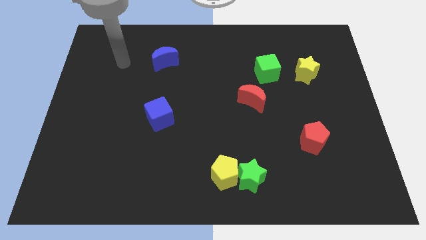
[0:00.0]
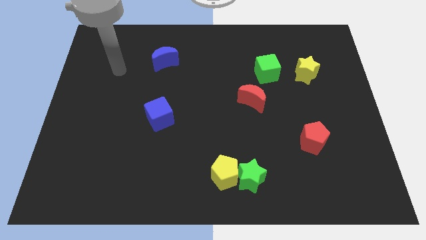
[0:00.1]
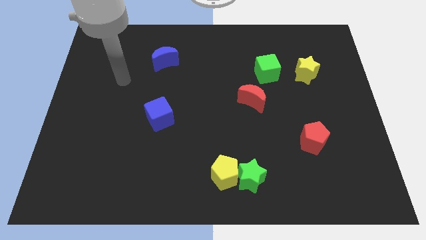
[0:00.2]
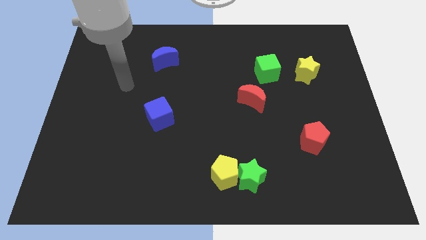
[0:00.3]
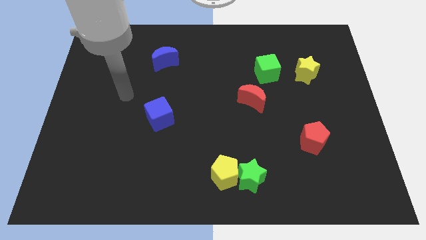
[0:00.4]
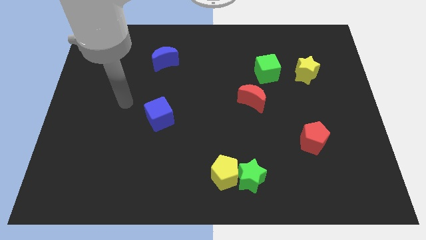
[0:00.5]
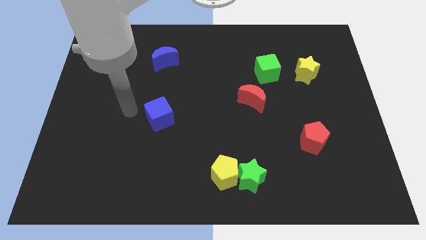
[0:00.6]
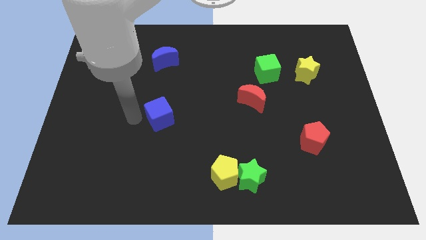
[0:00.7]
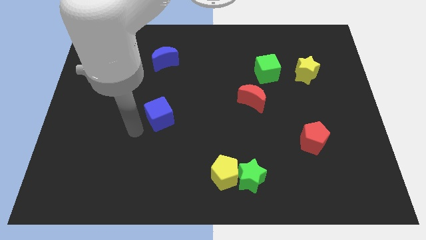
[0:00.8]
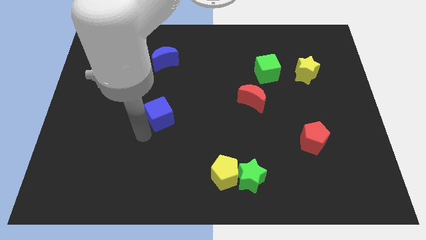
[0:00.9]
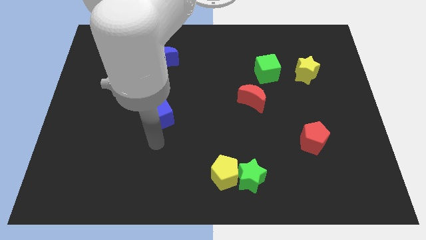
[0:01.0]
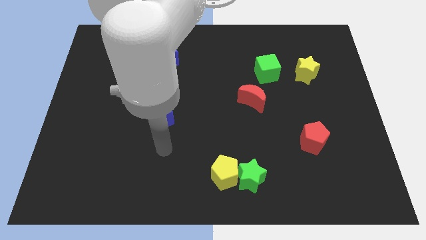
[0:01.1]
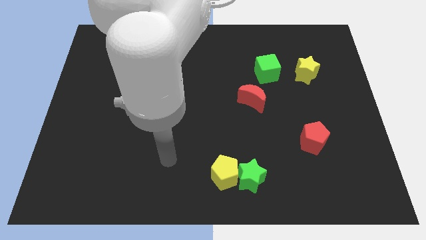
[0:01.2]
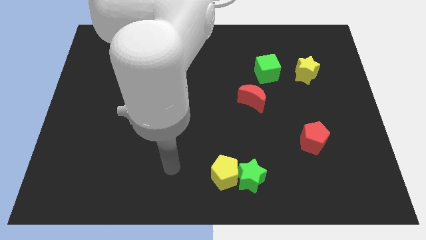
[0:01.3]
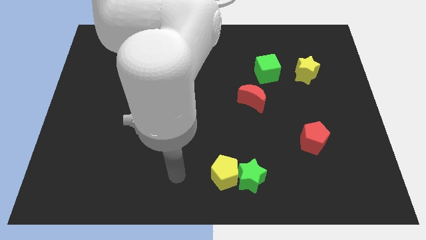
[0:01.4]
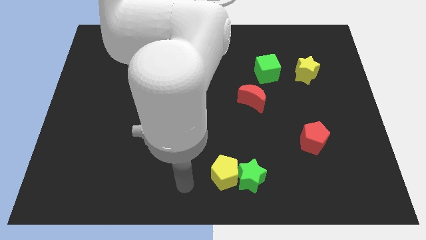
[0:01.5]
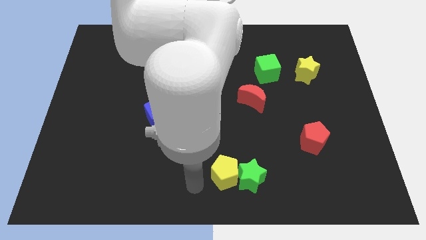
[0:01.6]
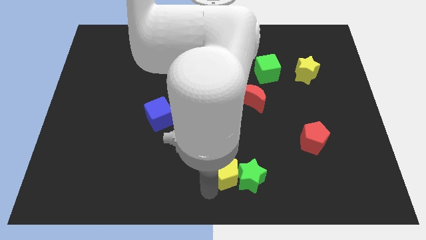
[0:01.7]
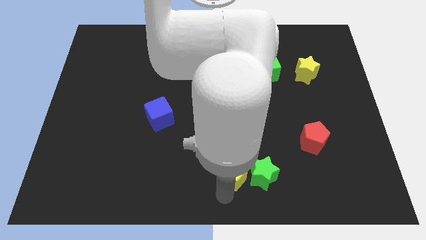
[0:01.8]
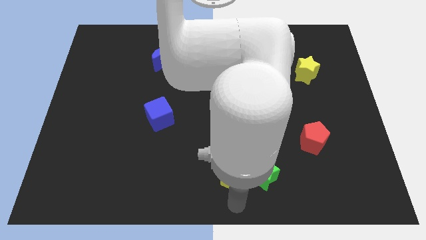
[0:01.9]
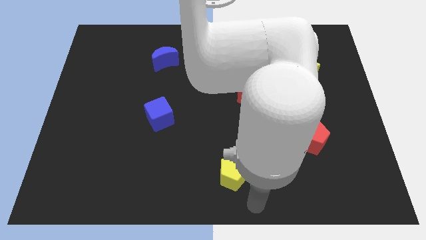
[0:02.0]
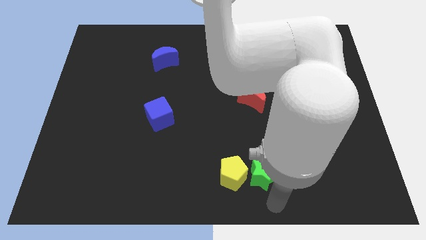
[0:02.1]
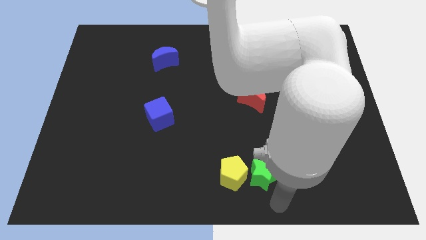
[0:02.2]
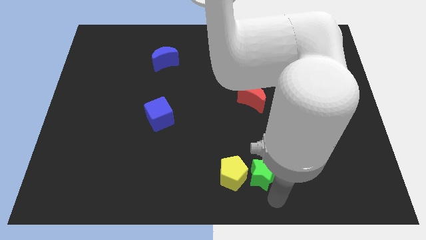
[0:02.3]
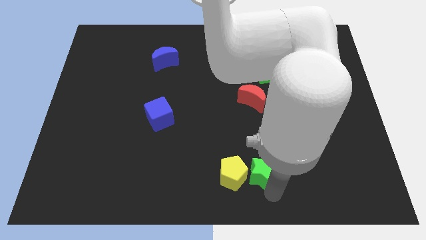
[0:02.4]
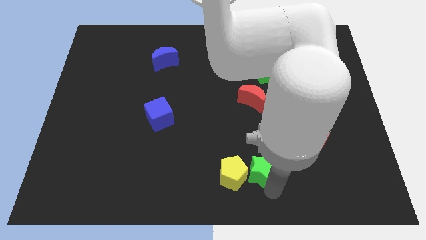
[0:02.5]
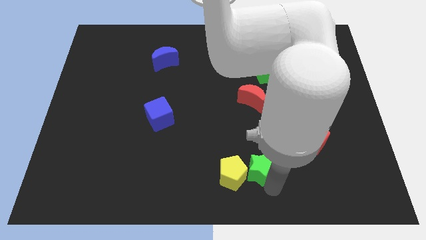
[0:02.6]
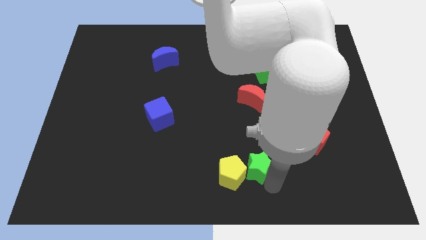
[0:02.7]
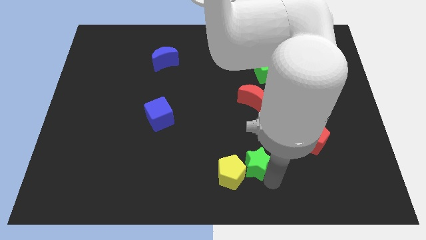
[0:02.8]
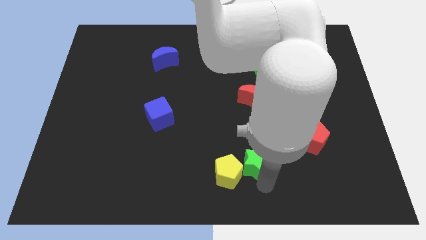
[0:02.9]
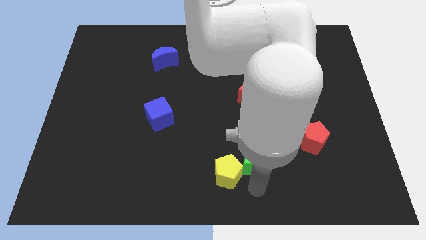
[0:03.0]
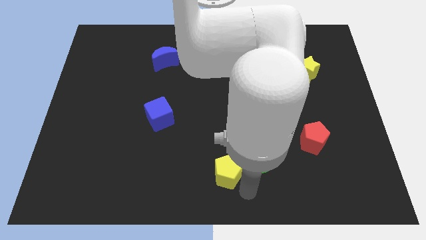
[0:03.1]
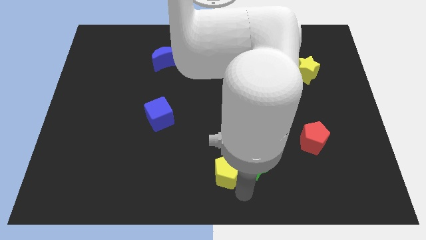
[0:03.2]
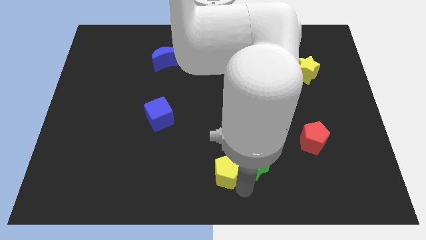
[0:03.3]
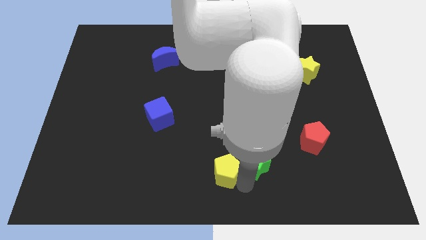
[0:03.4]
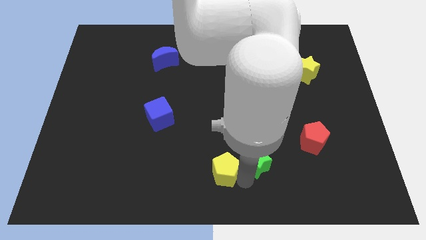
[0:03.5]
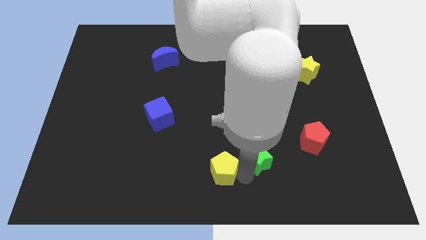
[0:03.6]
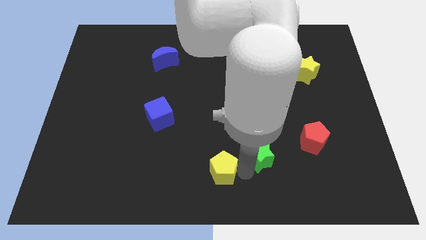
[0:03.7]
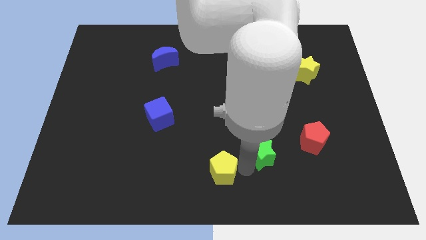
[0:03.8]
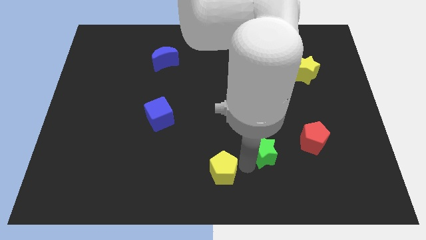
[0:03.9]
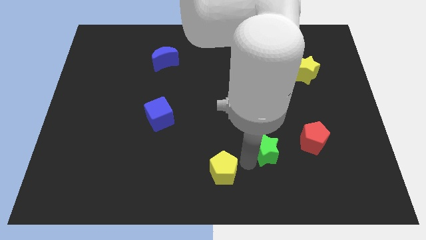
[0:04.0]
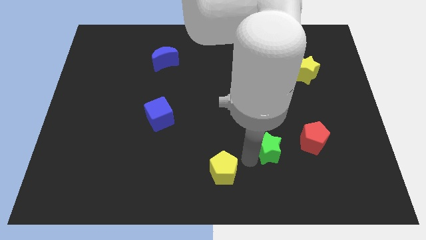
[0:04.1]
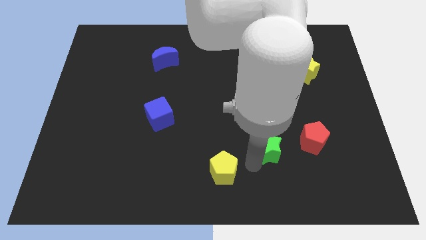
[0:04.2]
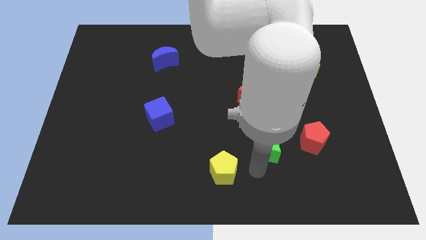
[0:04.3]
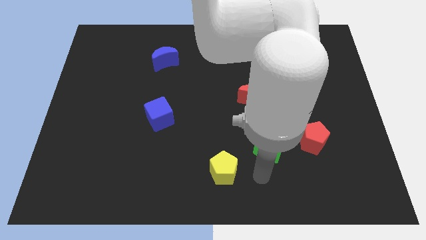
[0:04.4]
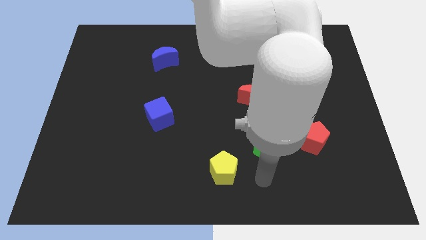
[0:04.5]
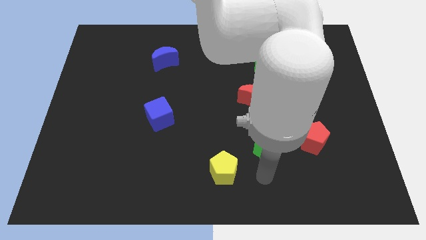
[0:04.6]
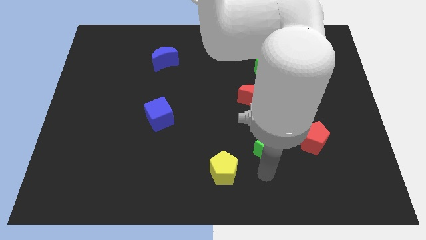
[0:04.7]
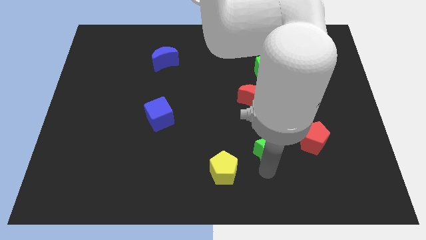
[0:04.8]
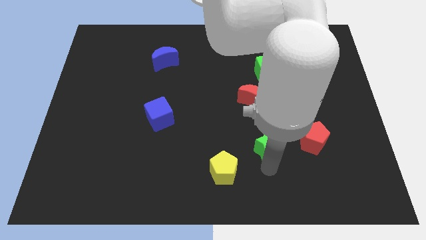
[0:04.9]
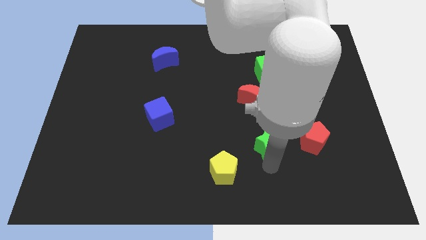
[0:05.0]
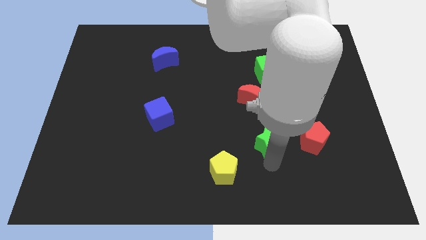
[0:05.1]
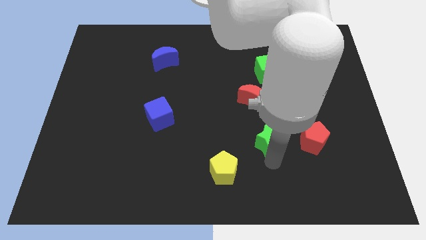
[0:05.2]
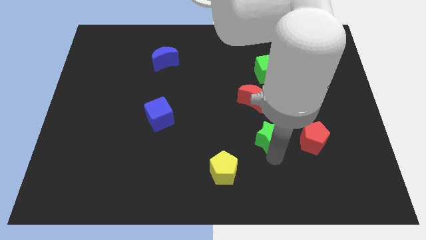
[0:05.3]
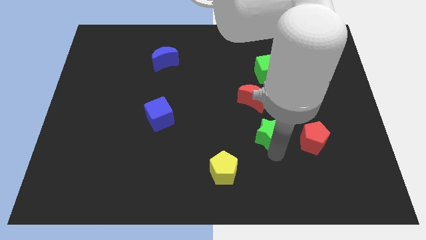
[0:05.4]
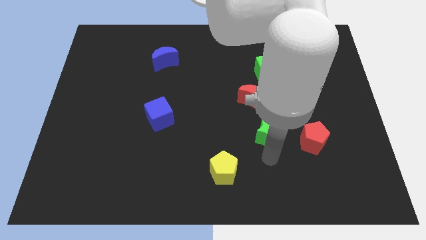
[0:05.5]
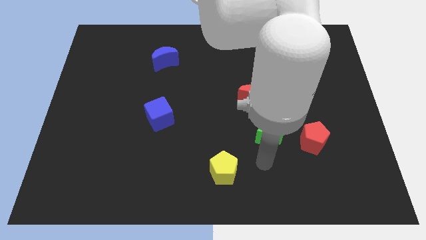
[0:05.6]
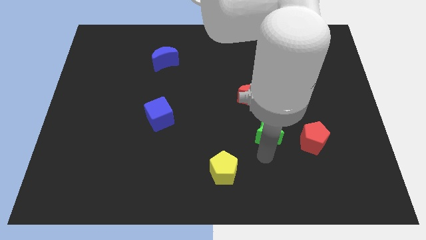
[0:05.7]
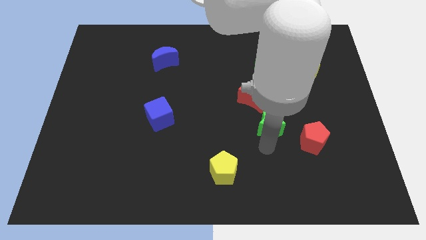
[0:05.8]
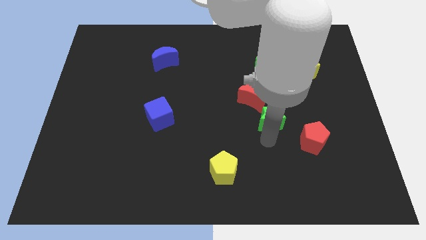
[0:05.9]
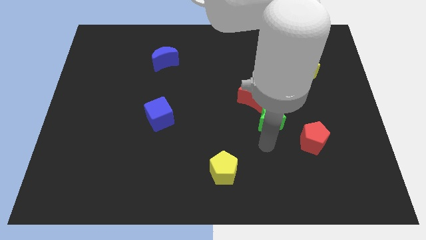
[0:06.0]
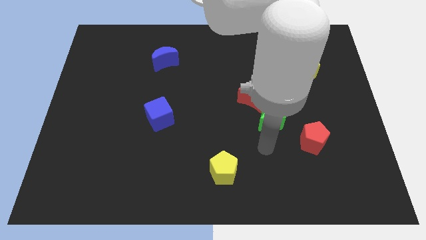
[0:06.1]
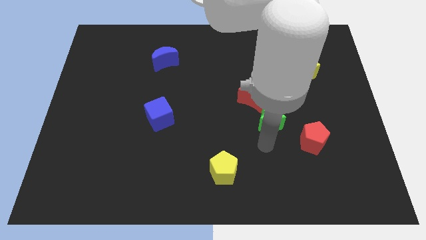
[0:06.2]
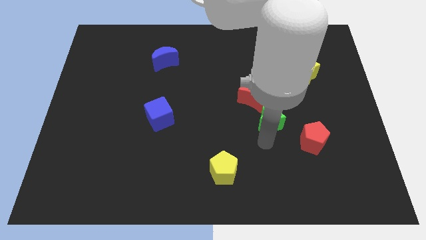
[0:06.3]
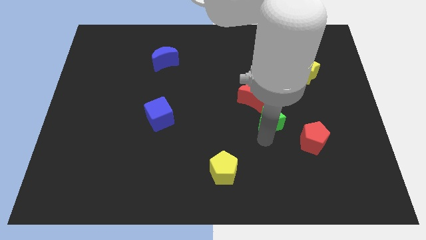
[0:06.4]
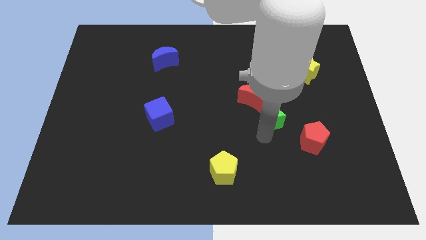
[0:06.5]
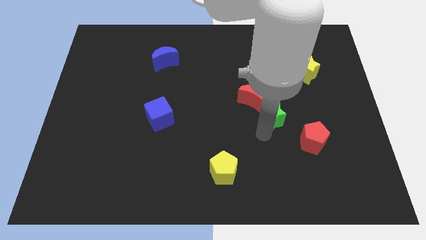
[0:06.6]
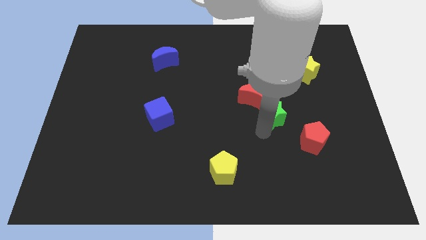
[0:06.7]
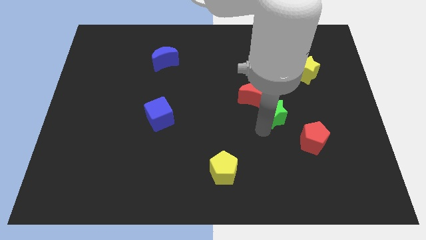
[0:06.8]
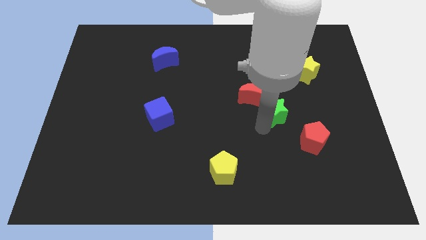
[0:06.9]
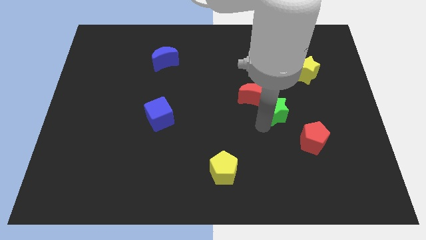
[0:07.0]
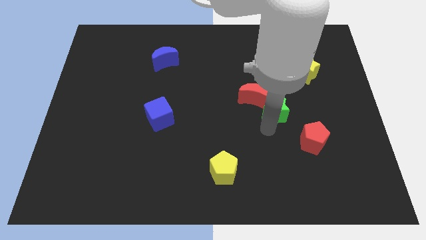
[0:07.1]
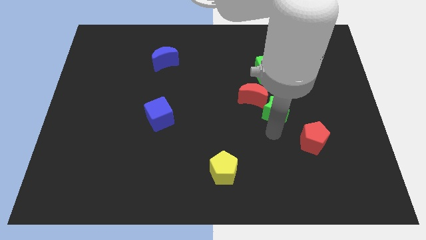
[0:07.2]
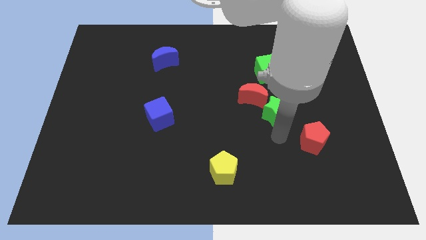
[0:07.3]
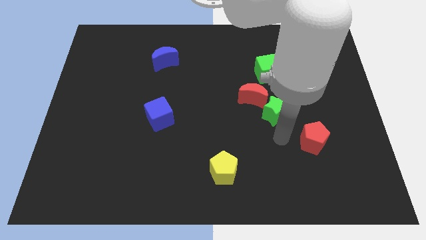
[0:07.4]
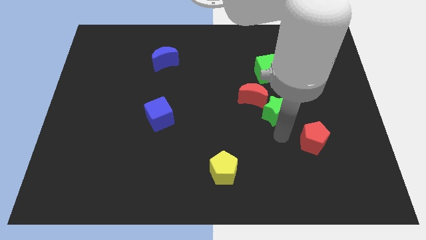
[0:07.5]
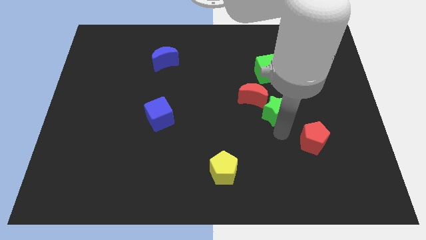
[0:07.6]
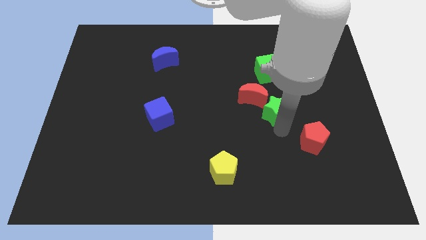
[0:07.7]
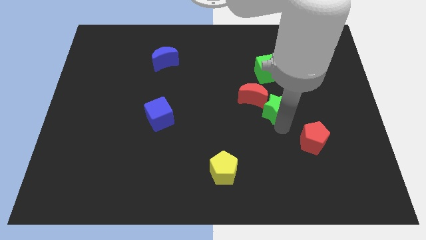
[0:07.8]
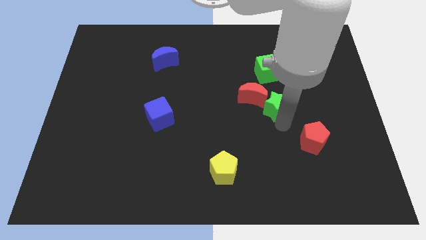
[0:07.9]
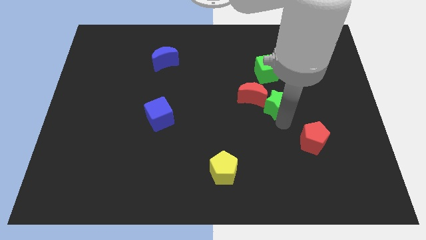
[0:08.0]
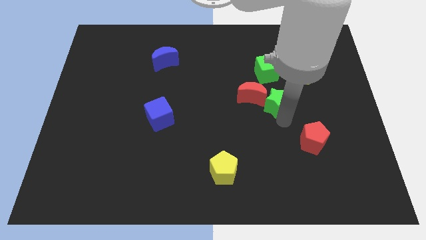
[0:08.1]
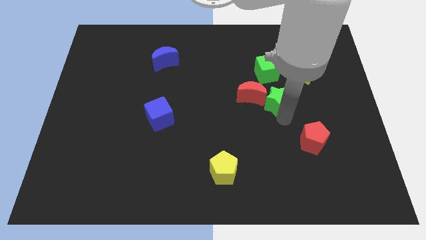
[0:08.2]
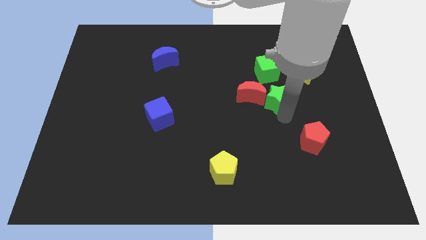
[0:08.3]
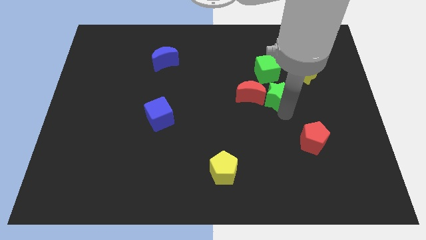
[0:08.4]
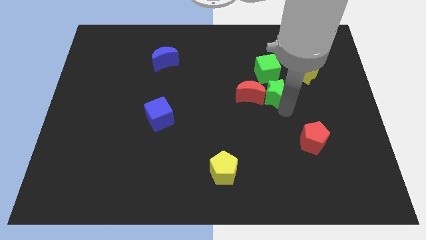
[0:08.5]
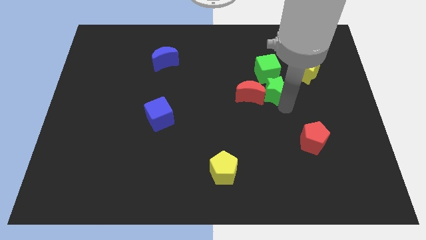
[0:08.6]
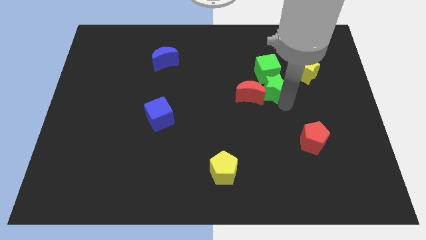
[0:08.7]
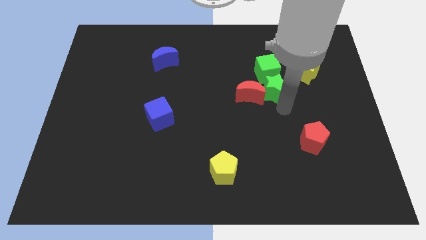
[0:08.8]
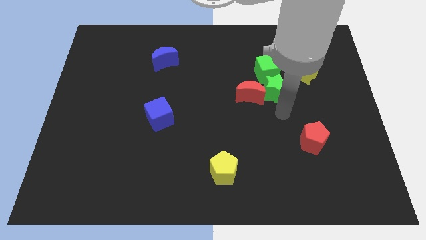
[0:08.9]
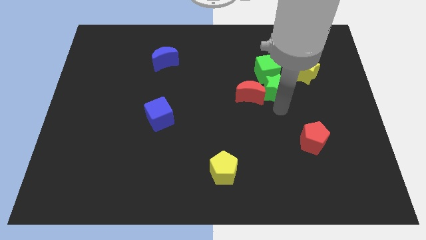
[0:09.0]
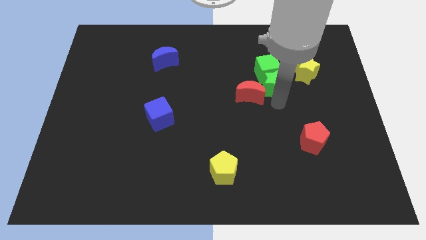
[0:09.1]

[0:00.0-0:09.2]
put the green star towards the green cube
